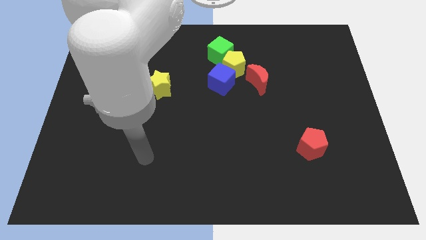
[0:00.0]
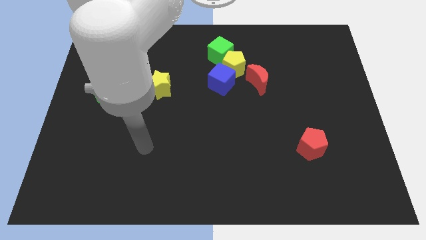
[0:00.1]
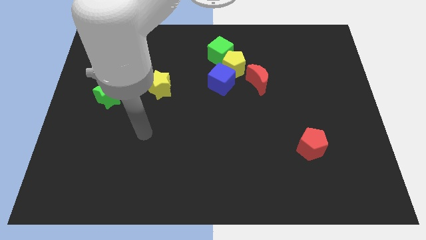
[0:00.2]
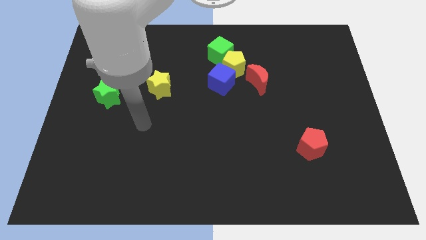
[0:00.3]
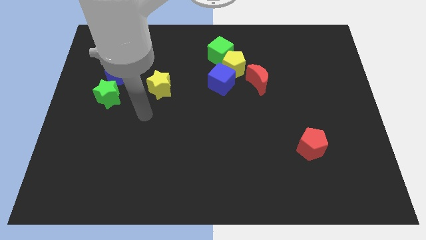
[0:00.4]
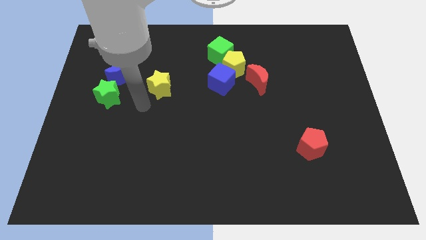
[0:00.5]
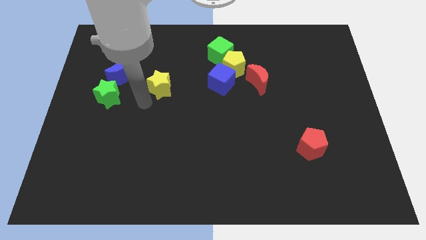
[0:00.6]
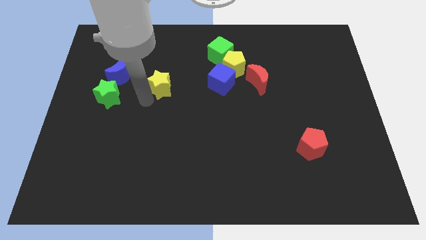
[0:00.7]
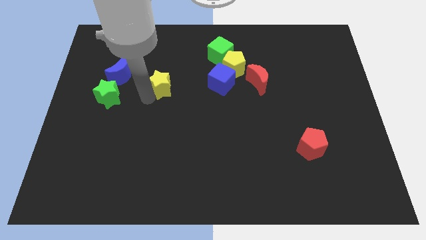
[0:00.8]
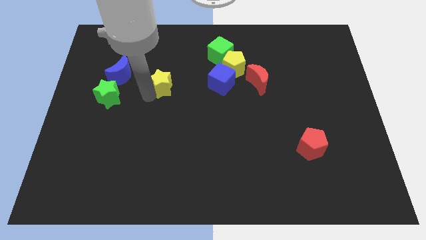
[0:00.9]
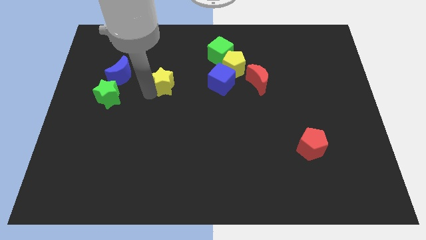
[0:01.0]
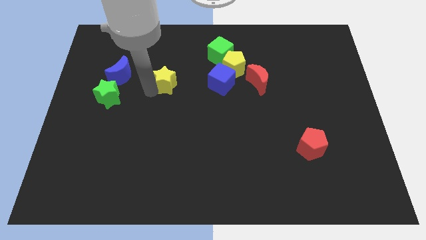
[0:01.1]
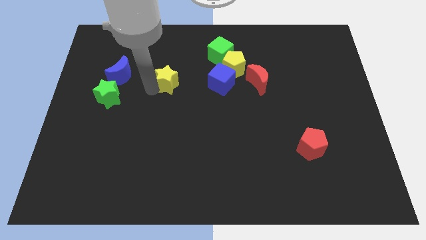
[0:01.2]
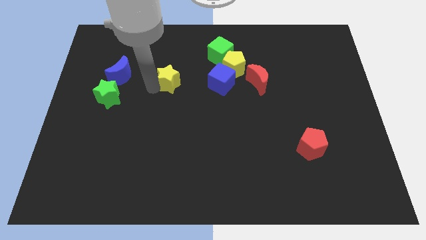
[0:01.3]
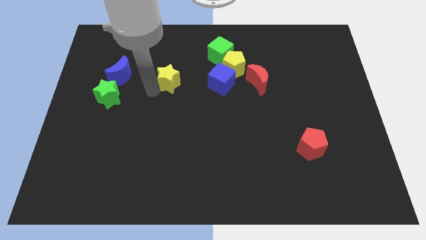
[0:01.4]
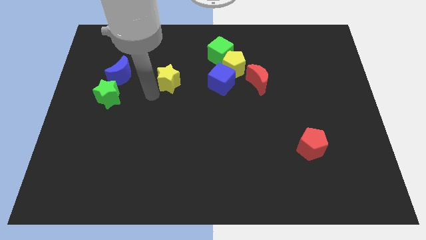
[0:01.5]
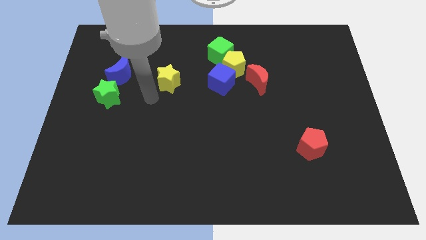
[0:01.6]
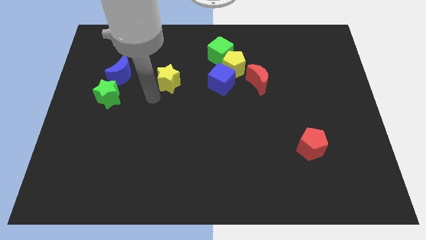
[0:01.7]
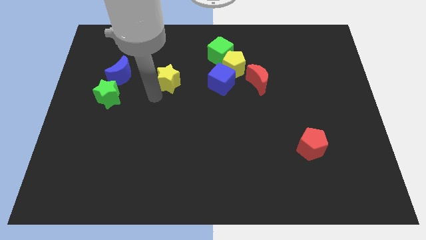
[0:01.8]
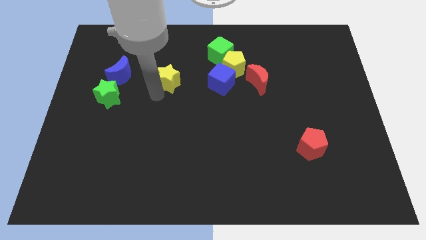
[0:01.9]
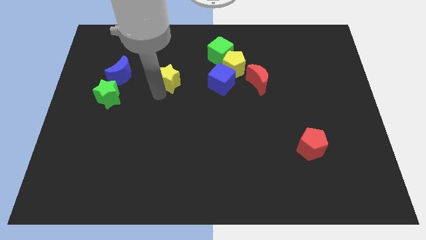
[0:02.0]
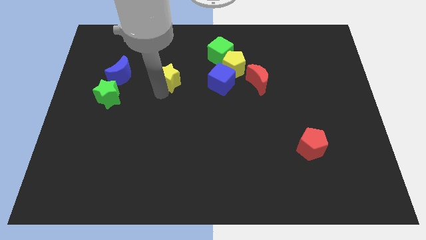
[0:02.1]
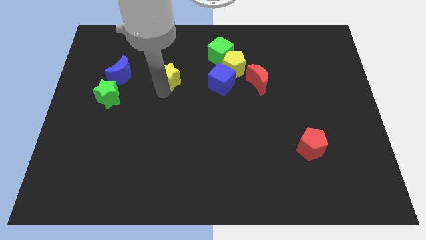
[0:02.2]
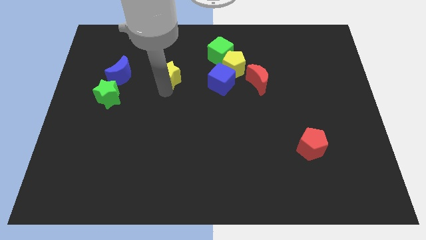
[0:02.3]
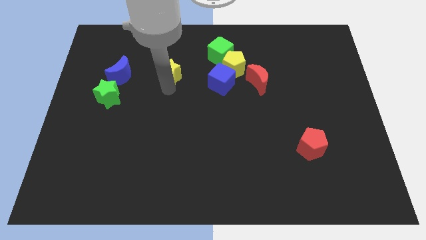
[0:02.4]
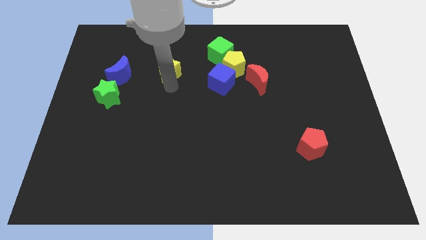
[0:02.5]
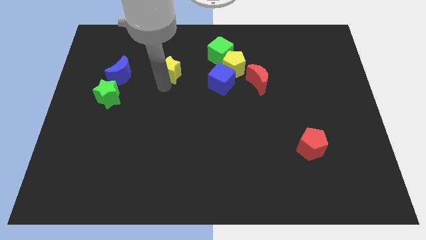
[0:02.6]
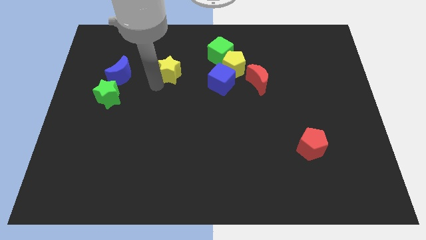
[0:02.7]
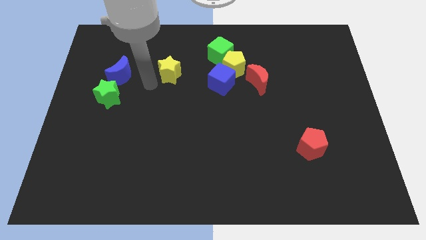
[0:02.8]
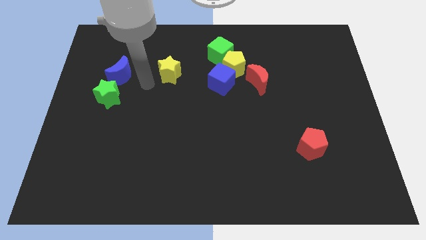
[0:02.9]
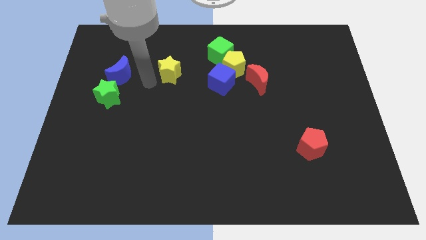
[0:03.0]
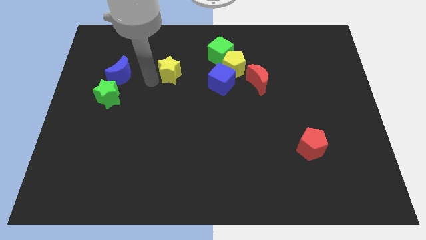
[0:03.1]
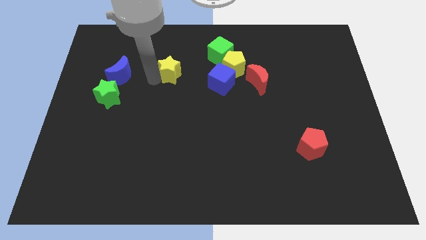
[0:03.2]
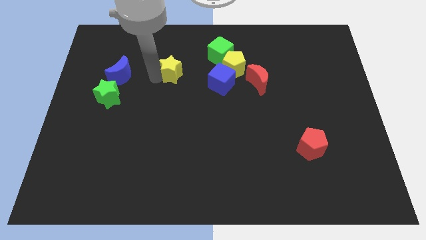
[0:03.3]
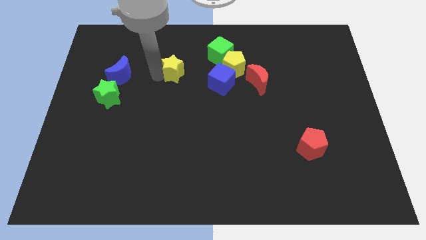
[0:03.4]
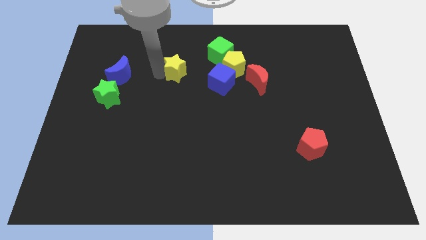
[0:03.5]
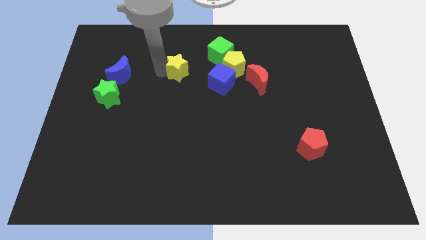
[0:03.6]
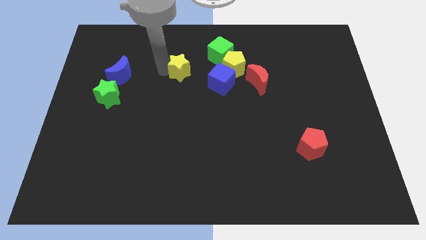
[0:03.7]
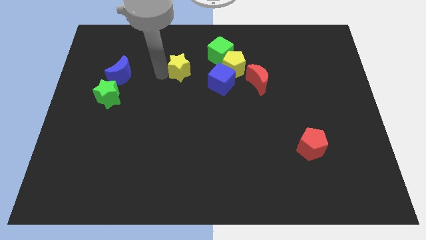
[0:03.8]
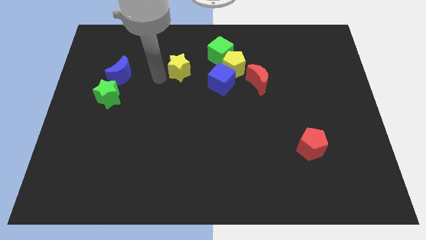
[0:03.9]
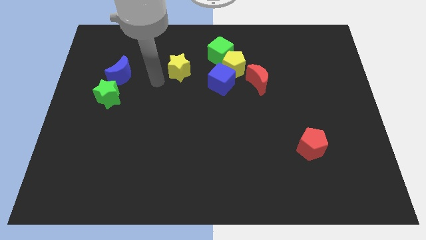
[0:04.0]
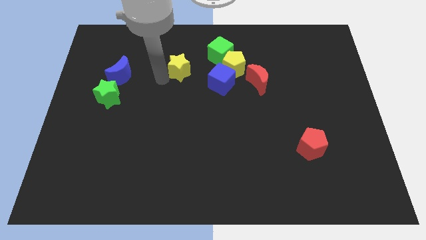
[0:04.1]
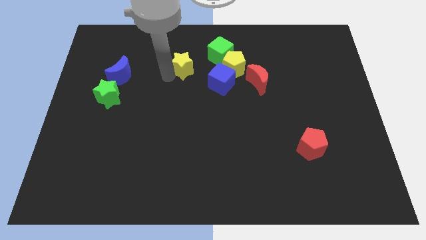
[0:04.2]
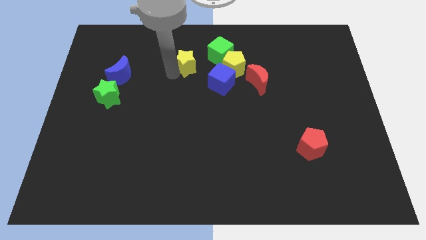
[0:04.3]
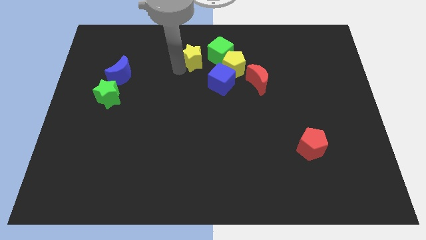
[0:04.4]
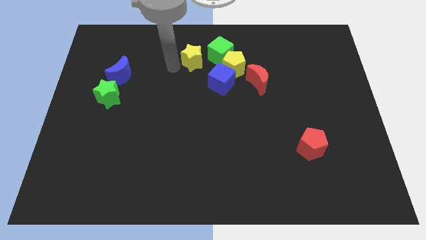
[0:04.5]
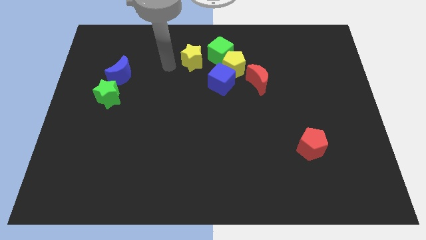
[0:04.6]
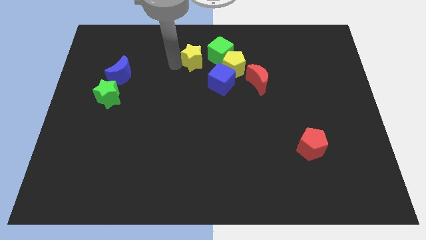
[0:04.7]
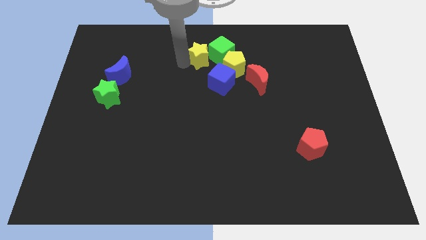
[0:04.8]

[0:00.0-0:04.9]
slide the yellow star next to the green cube

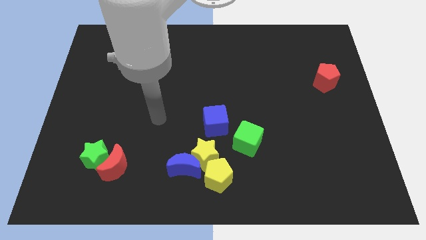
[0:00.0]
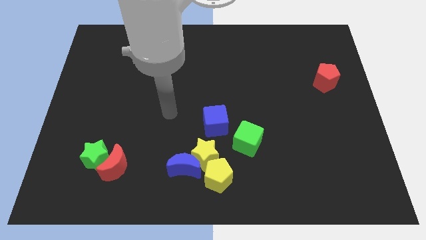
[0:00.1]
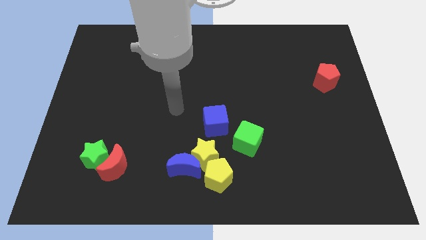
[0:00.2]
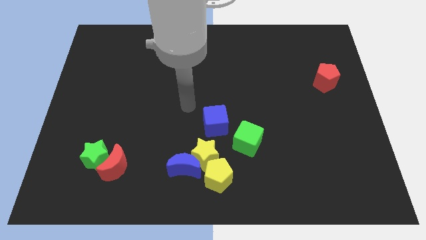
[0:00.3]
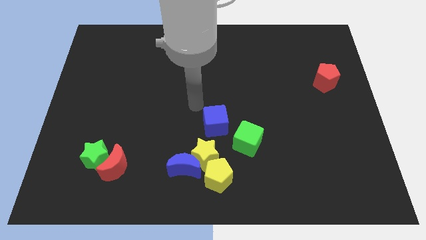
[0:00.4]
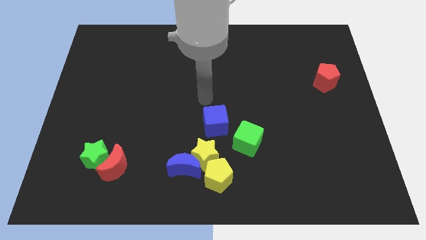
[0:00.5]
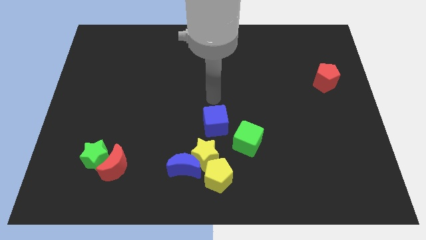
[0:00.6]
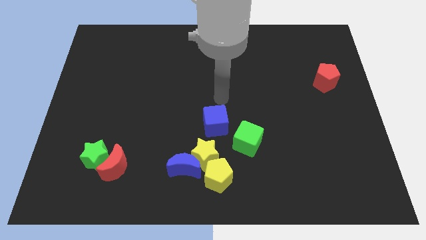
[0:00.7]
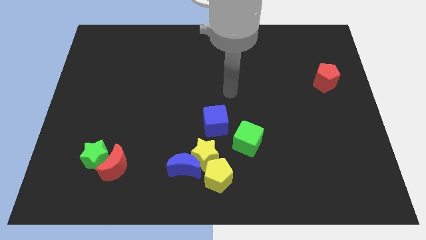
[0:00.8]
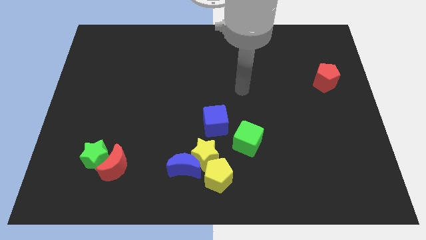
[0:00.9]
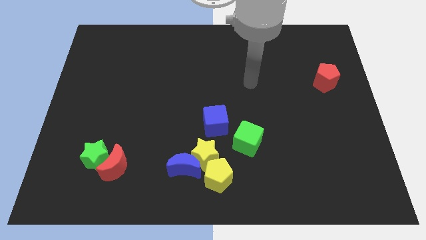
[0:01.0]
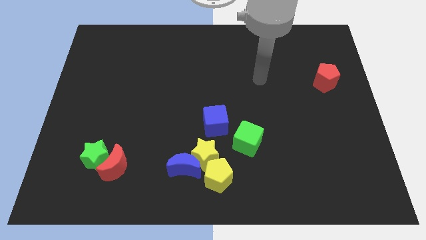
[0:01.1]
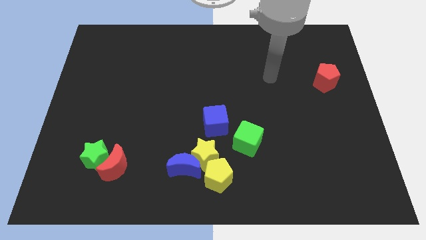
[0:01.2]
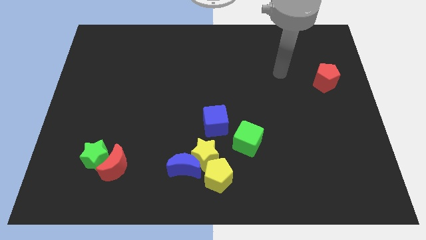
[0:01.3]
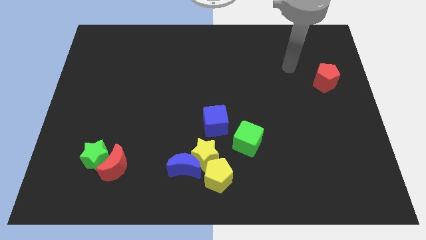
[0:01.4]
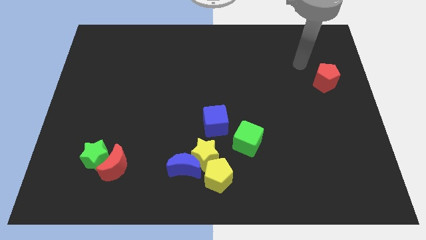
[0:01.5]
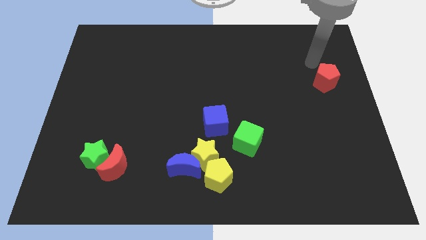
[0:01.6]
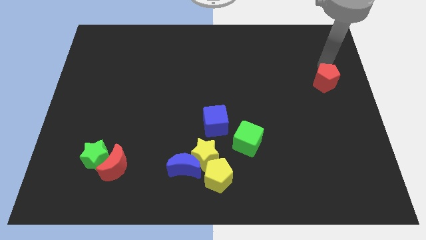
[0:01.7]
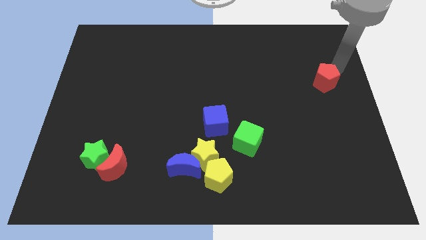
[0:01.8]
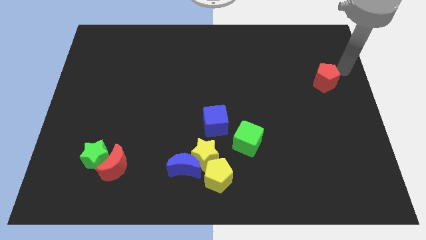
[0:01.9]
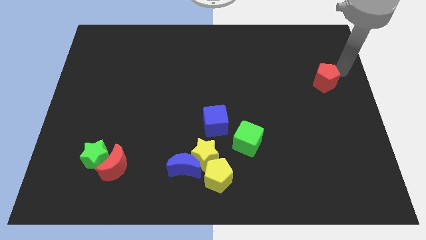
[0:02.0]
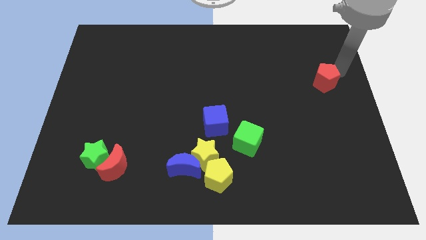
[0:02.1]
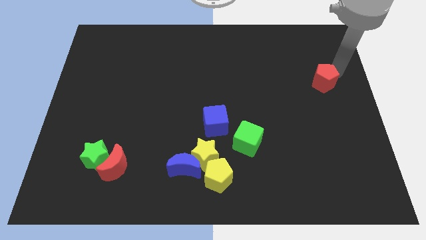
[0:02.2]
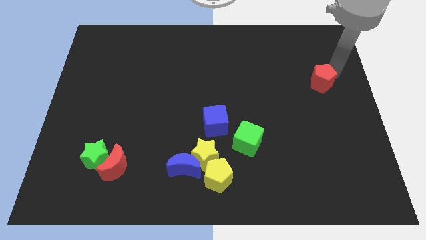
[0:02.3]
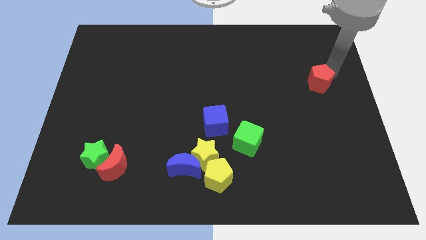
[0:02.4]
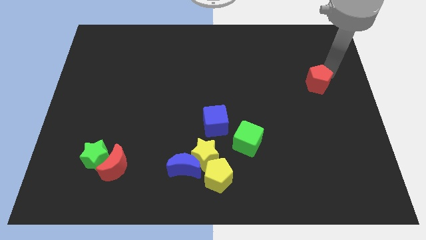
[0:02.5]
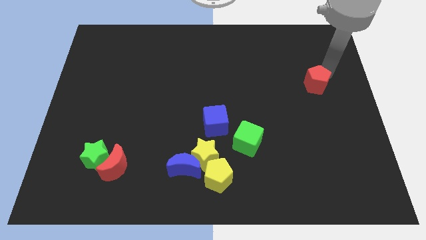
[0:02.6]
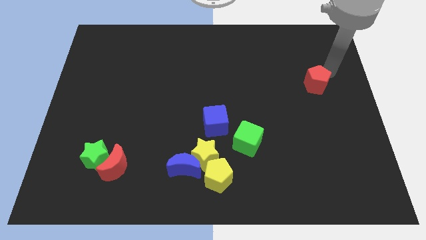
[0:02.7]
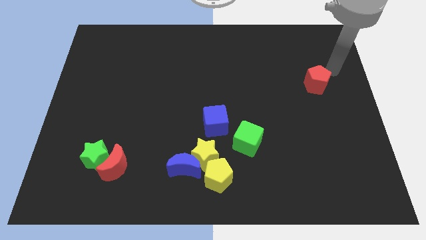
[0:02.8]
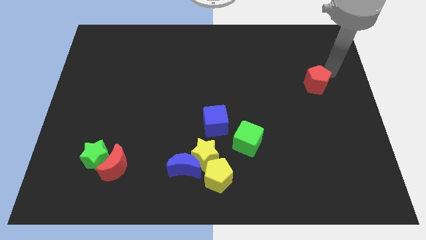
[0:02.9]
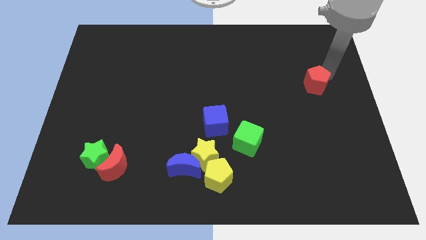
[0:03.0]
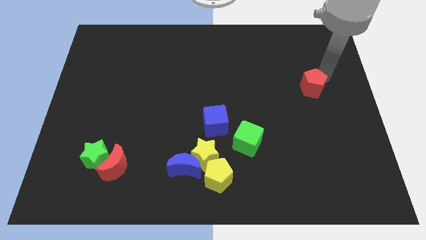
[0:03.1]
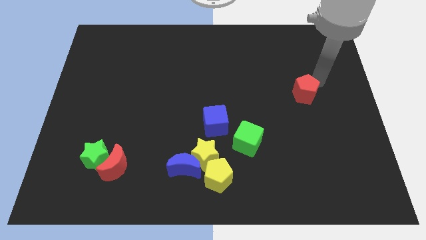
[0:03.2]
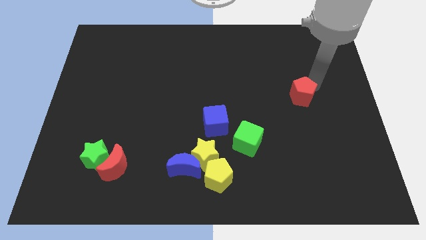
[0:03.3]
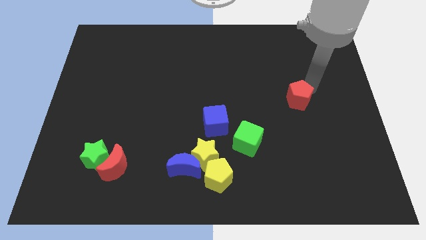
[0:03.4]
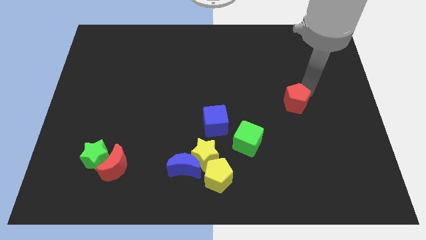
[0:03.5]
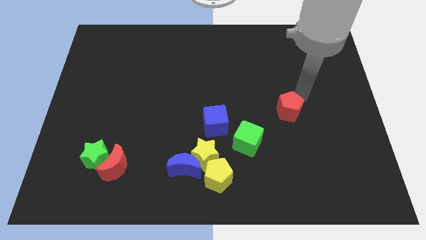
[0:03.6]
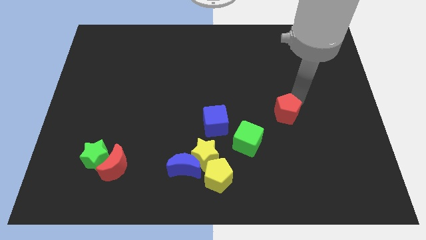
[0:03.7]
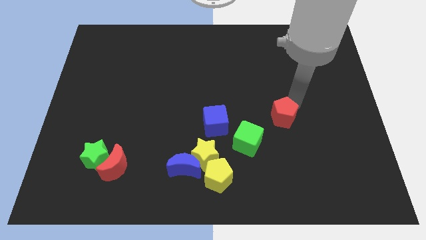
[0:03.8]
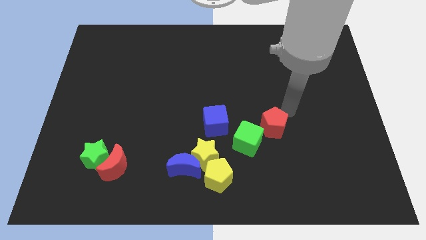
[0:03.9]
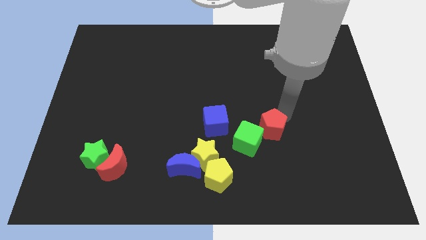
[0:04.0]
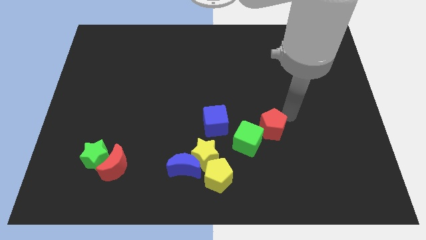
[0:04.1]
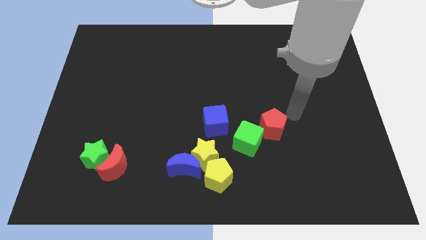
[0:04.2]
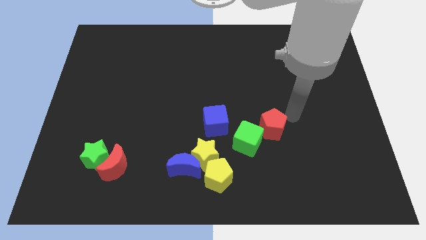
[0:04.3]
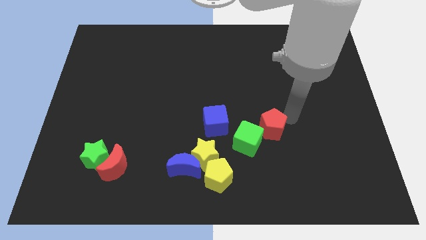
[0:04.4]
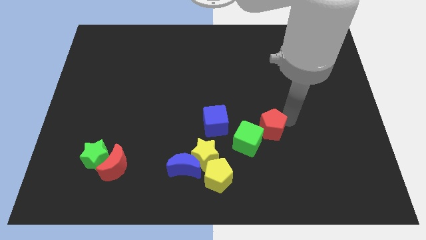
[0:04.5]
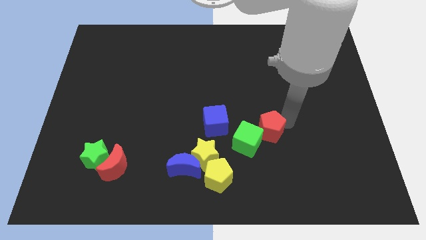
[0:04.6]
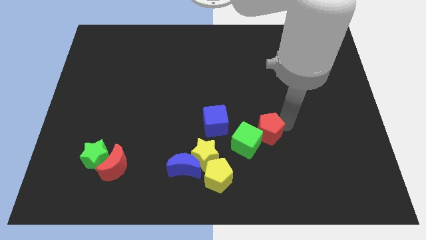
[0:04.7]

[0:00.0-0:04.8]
push the red pentagon close to the green cube
